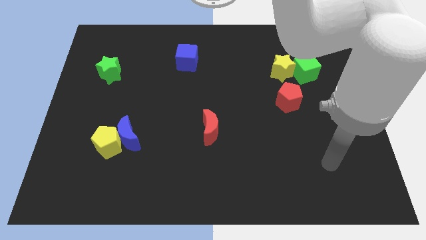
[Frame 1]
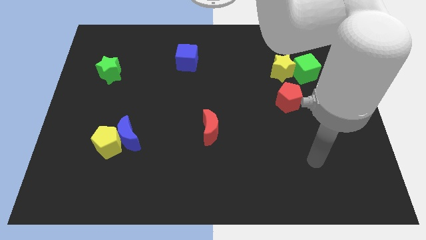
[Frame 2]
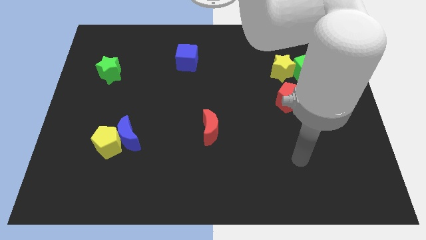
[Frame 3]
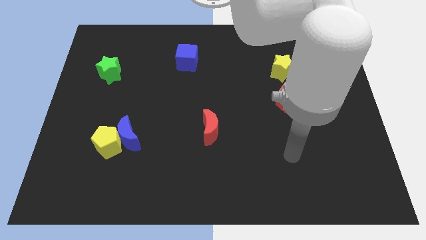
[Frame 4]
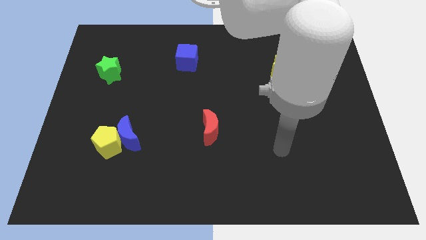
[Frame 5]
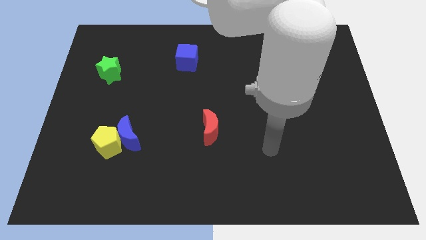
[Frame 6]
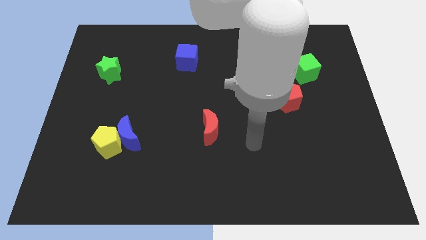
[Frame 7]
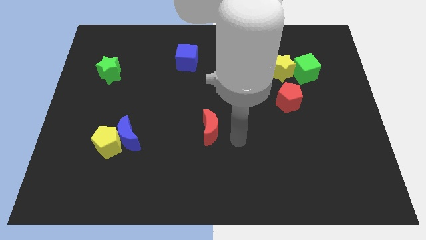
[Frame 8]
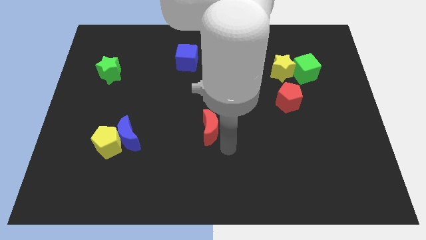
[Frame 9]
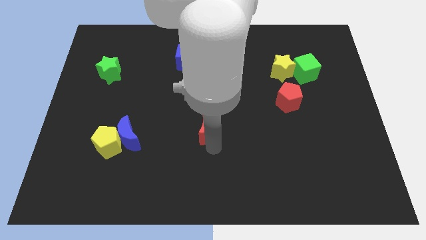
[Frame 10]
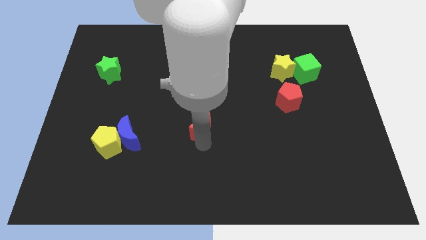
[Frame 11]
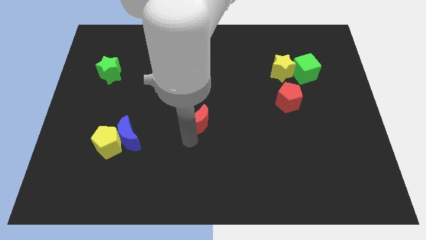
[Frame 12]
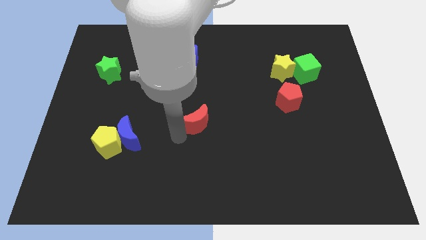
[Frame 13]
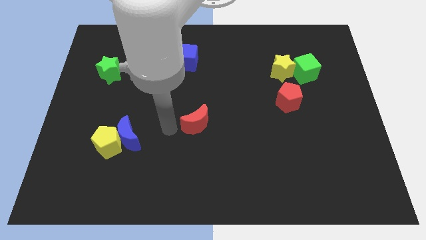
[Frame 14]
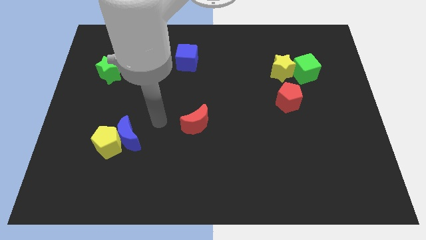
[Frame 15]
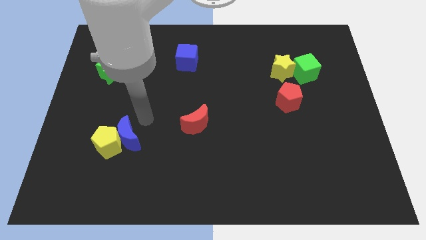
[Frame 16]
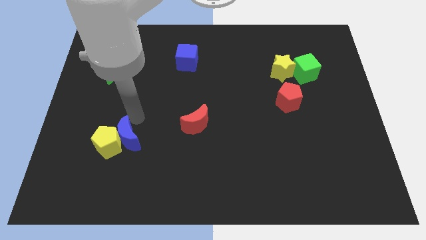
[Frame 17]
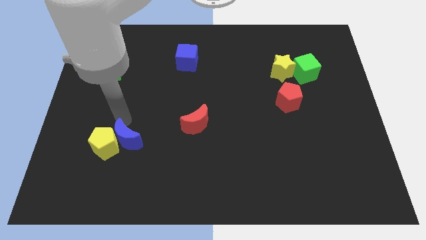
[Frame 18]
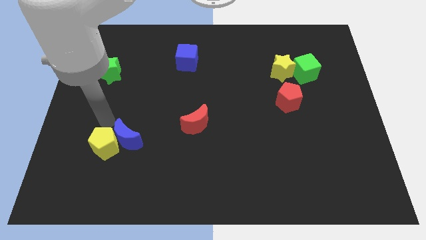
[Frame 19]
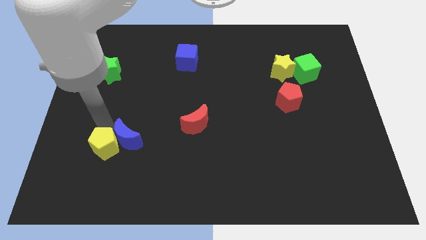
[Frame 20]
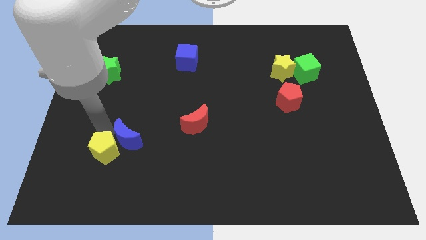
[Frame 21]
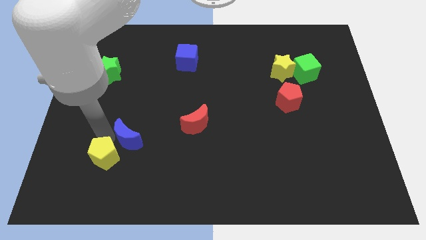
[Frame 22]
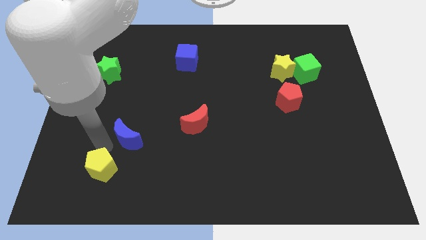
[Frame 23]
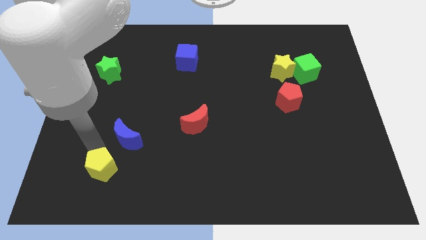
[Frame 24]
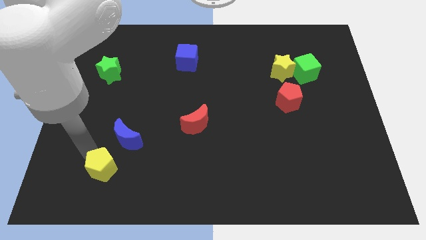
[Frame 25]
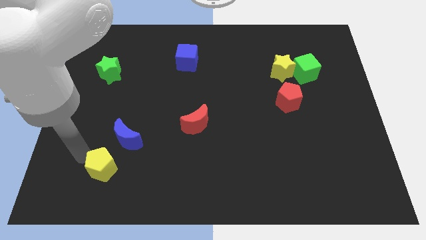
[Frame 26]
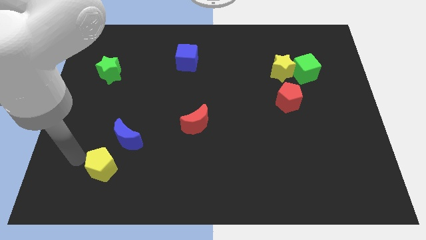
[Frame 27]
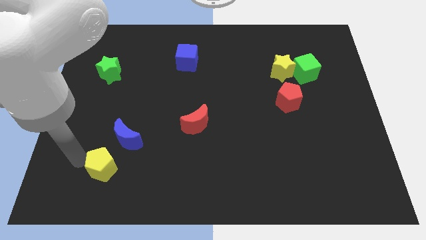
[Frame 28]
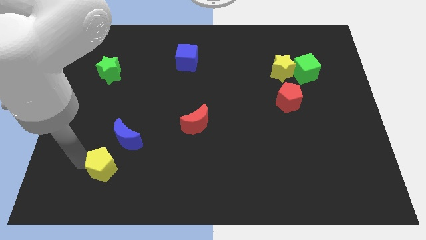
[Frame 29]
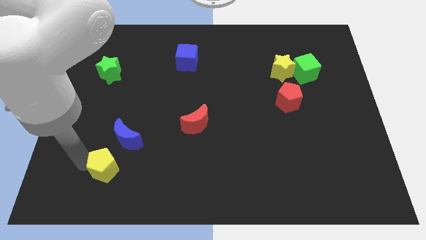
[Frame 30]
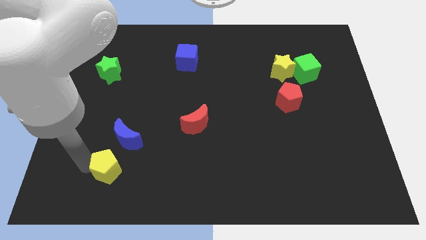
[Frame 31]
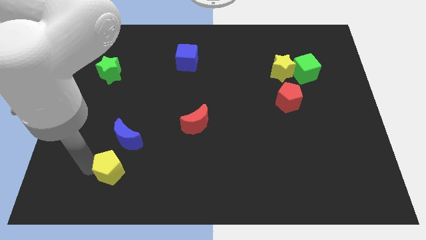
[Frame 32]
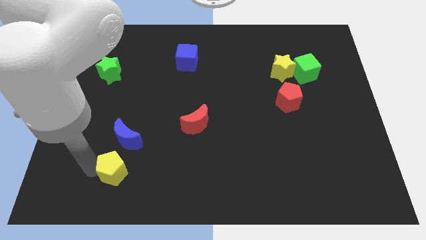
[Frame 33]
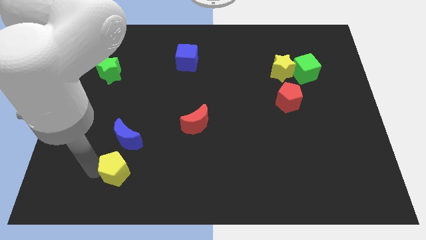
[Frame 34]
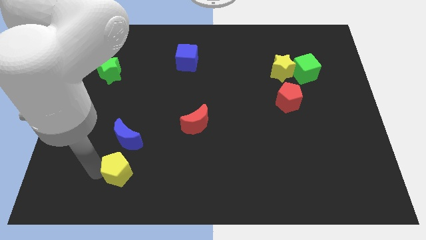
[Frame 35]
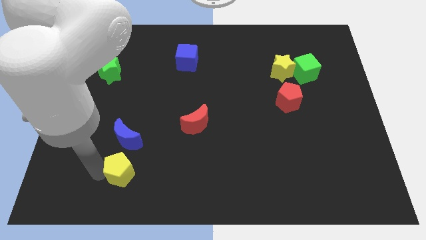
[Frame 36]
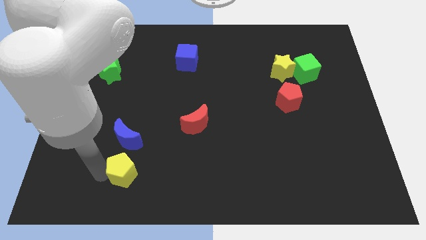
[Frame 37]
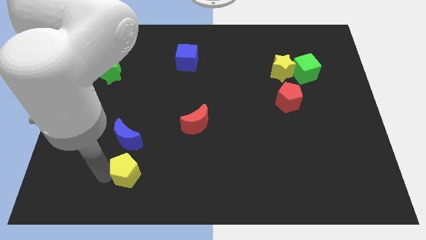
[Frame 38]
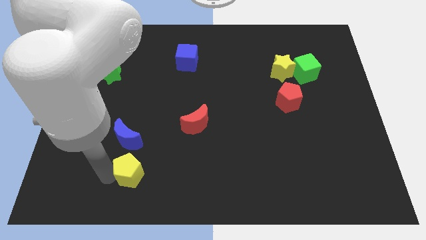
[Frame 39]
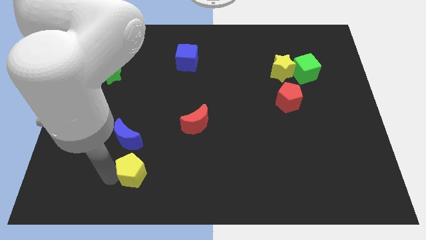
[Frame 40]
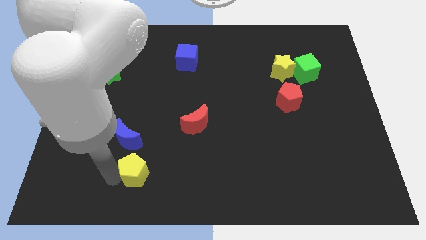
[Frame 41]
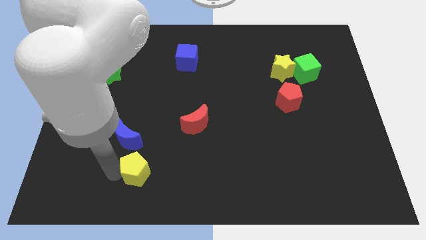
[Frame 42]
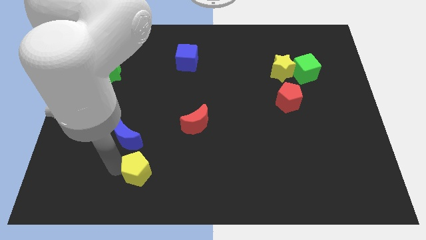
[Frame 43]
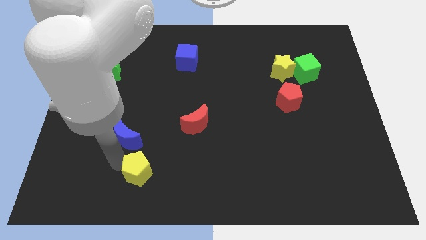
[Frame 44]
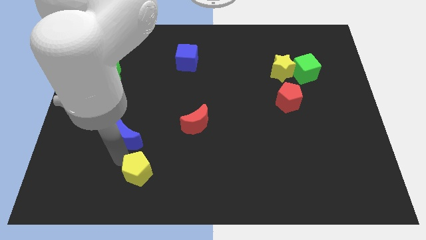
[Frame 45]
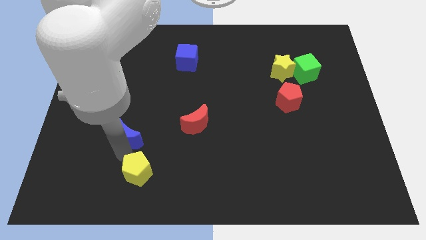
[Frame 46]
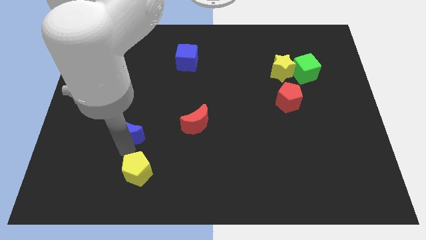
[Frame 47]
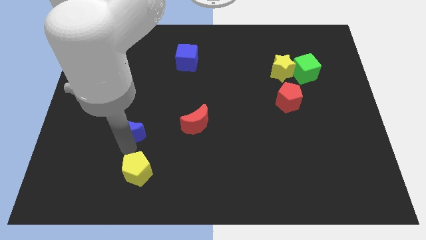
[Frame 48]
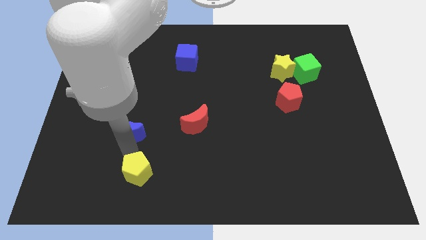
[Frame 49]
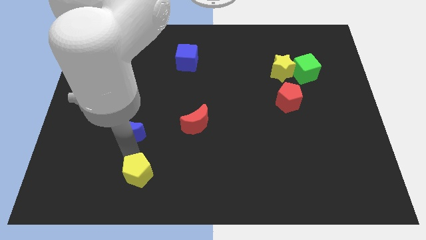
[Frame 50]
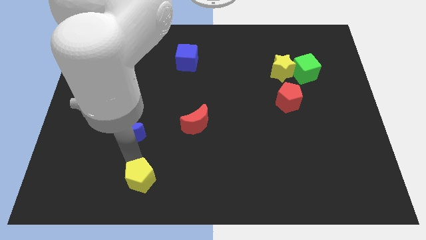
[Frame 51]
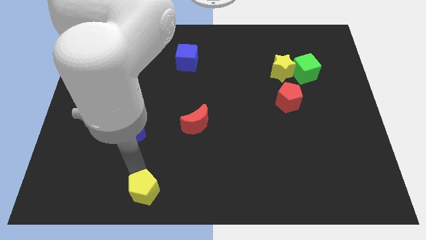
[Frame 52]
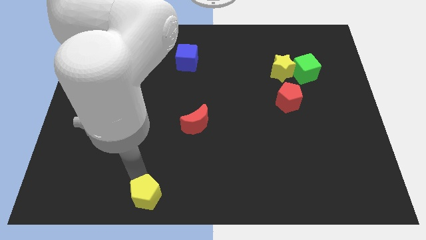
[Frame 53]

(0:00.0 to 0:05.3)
put the yellow pentagon to the bottom side

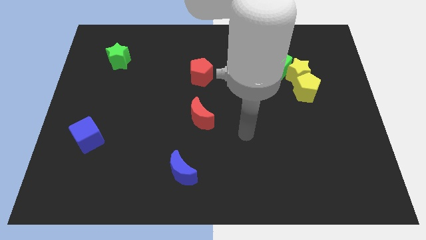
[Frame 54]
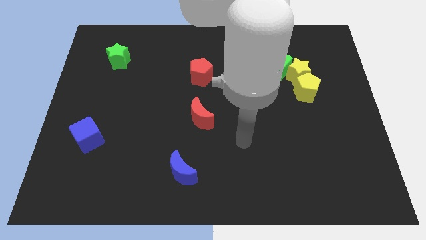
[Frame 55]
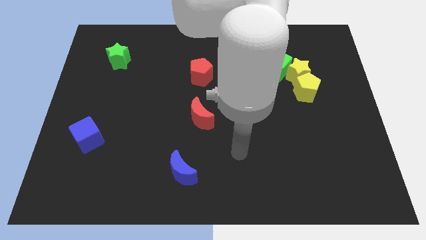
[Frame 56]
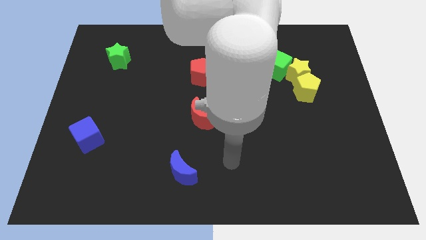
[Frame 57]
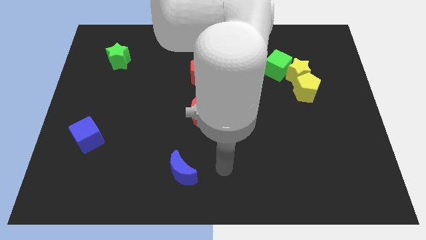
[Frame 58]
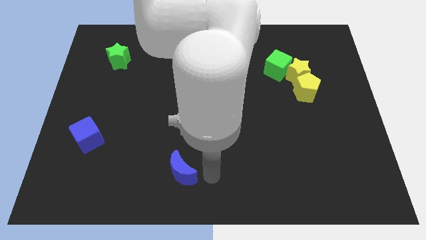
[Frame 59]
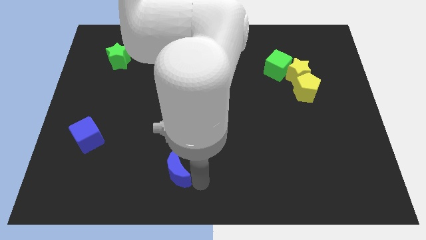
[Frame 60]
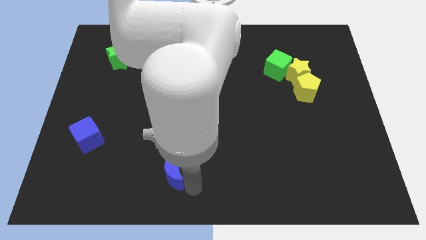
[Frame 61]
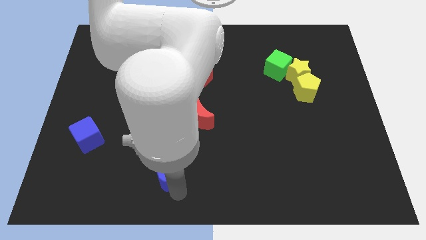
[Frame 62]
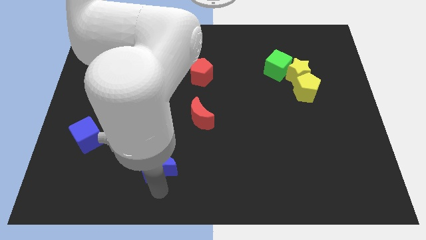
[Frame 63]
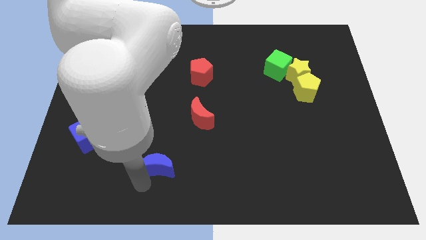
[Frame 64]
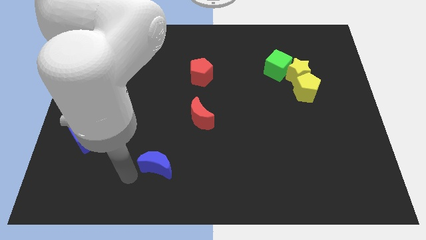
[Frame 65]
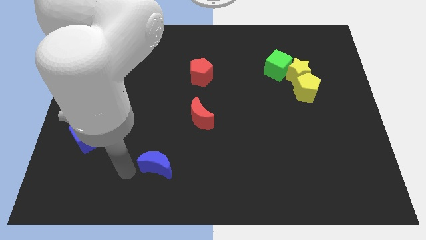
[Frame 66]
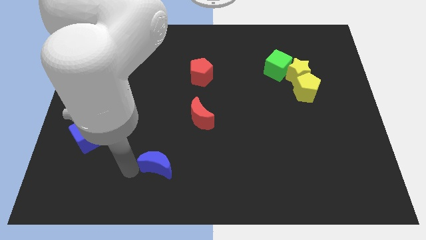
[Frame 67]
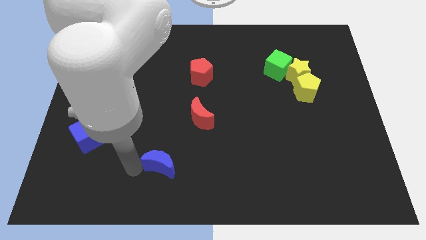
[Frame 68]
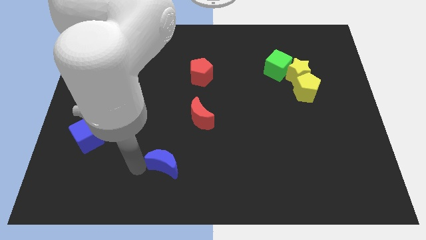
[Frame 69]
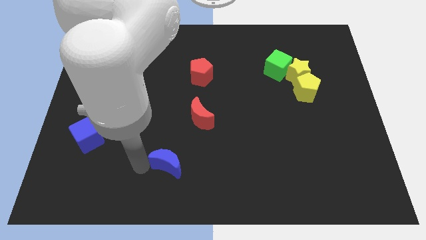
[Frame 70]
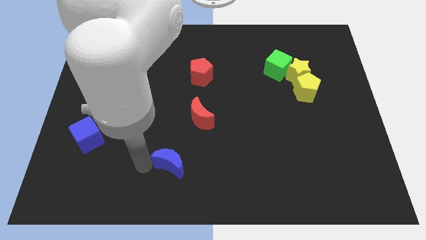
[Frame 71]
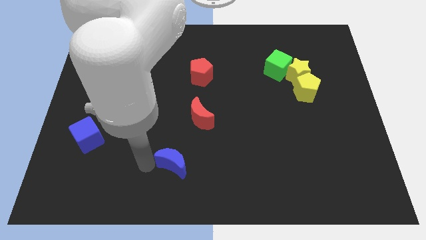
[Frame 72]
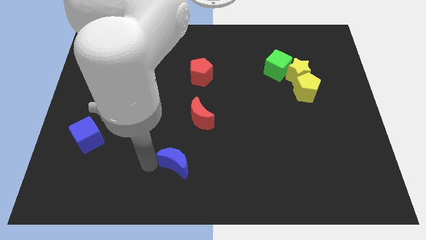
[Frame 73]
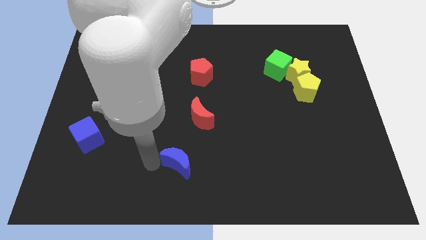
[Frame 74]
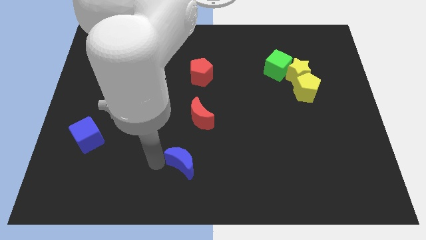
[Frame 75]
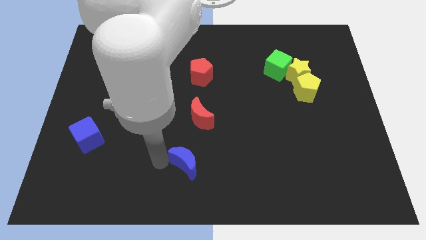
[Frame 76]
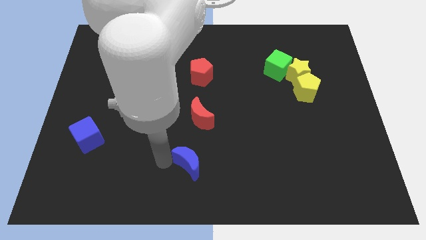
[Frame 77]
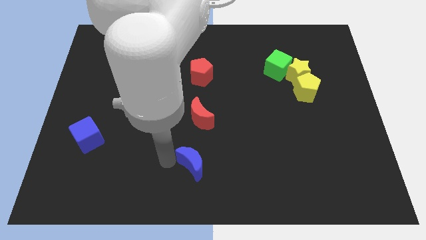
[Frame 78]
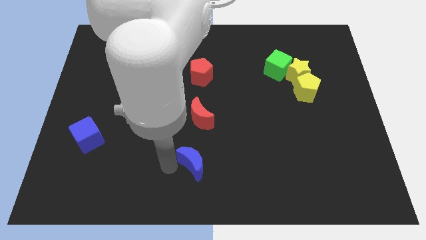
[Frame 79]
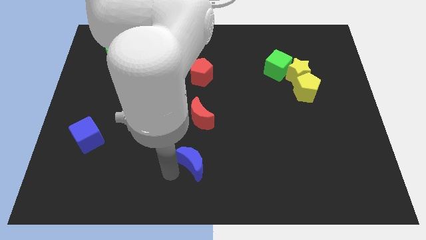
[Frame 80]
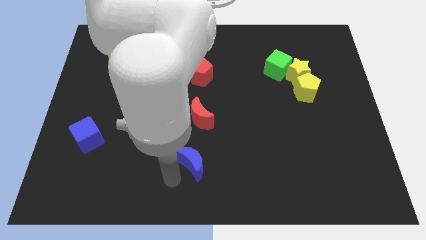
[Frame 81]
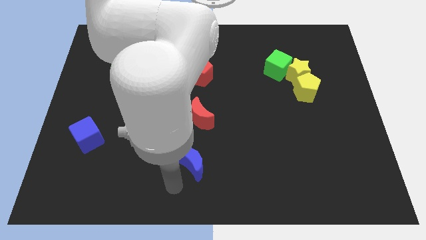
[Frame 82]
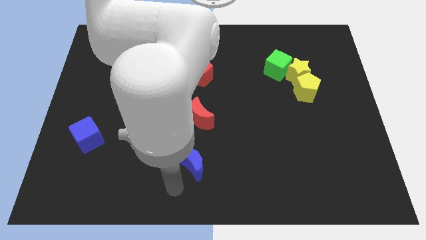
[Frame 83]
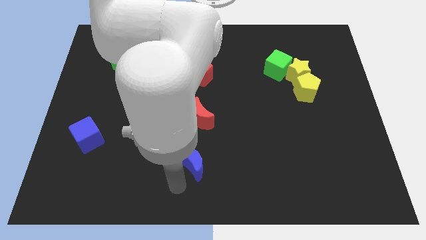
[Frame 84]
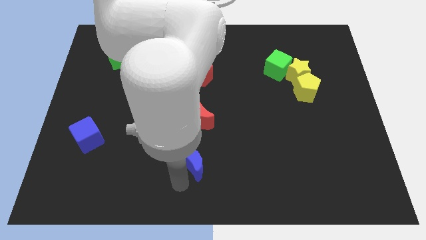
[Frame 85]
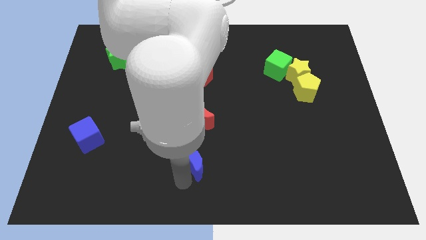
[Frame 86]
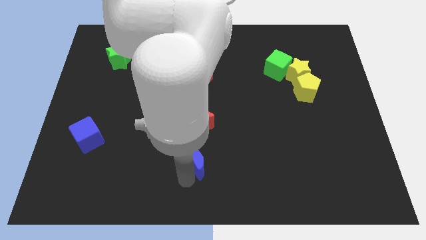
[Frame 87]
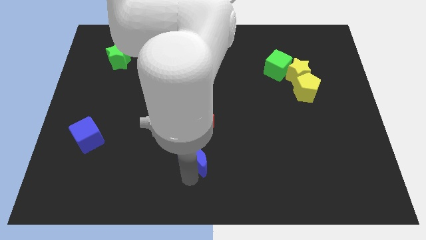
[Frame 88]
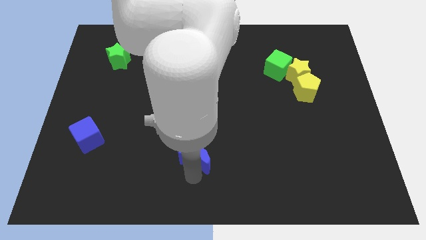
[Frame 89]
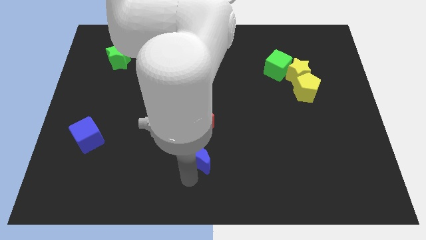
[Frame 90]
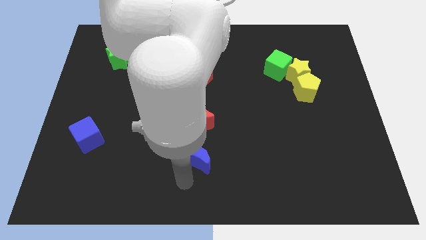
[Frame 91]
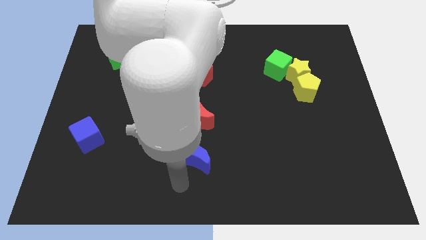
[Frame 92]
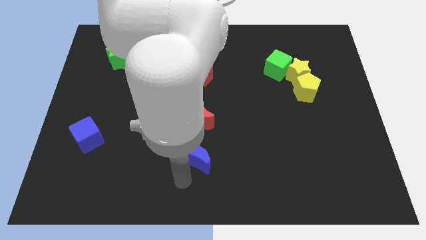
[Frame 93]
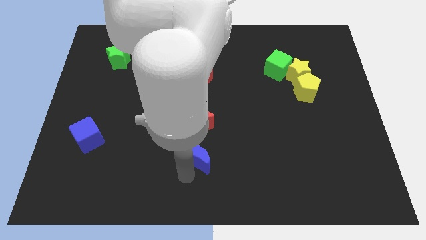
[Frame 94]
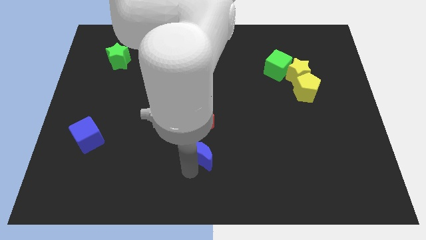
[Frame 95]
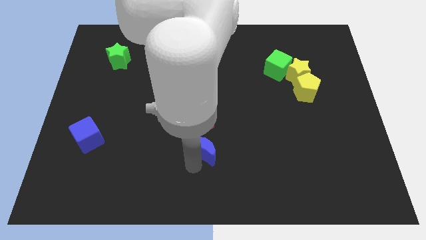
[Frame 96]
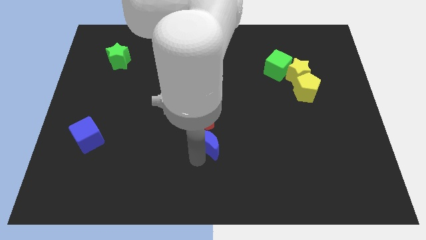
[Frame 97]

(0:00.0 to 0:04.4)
slide the blue moon to the middle
